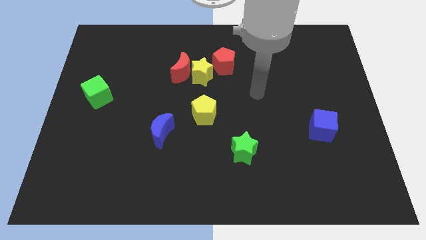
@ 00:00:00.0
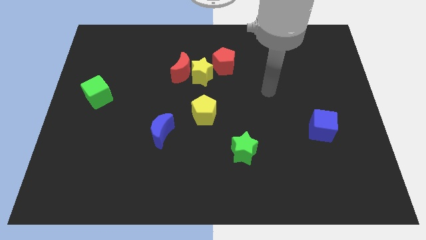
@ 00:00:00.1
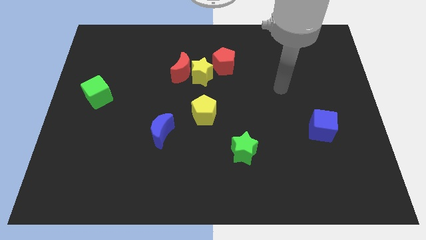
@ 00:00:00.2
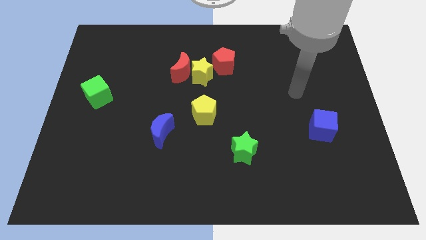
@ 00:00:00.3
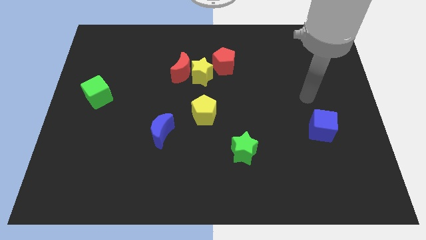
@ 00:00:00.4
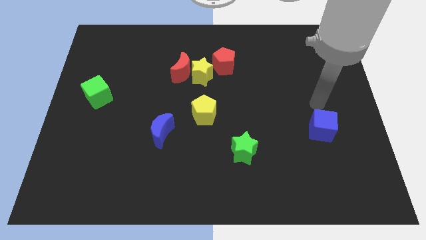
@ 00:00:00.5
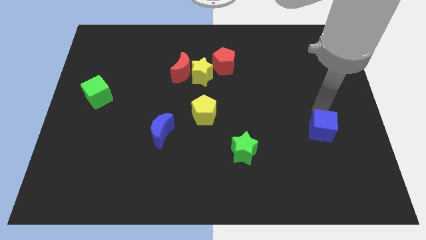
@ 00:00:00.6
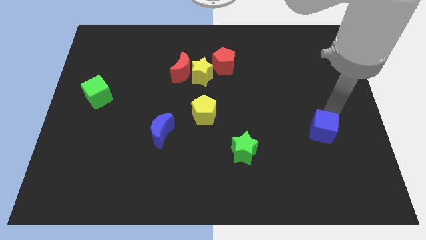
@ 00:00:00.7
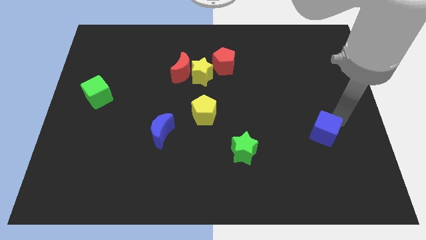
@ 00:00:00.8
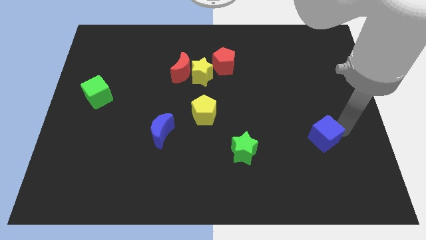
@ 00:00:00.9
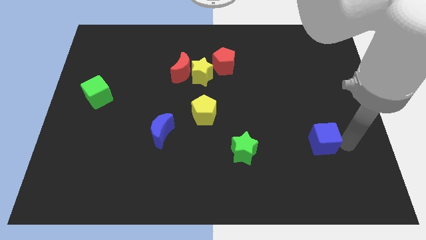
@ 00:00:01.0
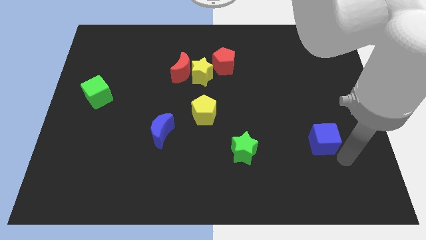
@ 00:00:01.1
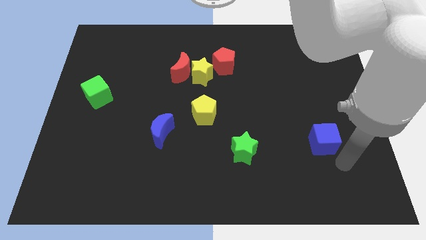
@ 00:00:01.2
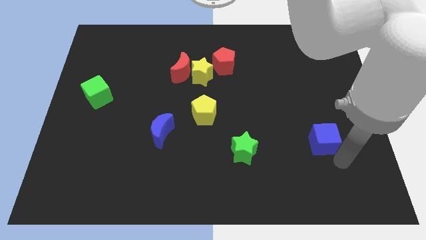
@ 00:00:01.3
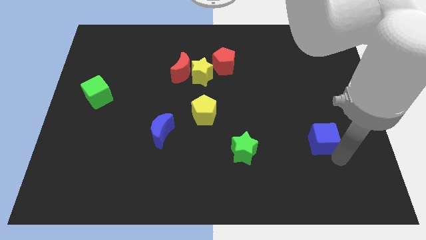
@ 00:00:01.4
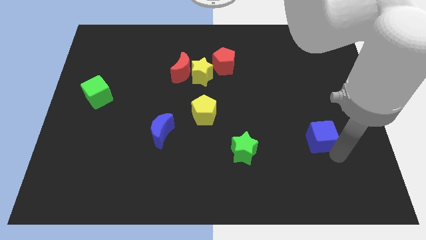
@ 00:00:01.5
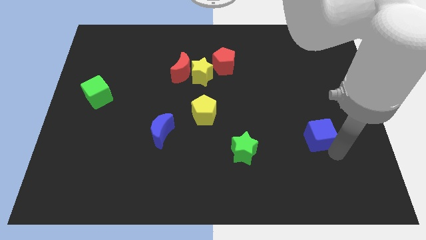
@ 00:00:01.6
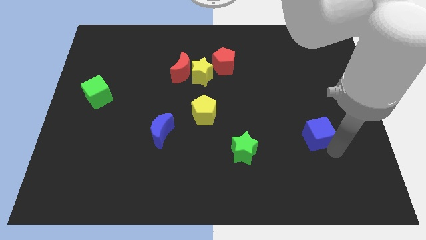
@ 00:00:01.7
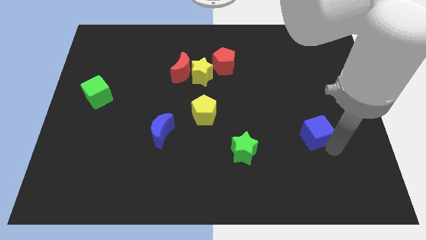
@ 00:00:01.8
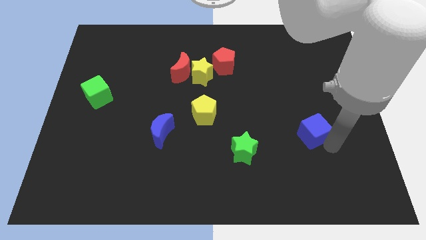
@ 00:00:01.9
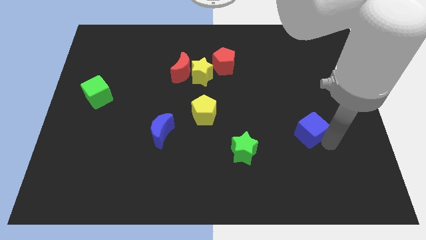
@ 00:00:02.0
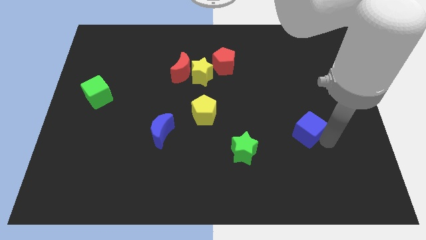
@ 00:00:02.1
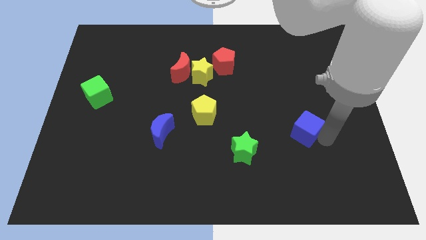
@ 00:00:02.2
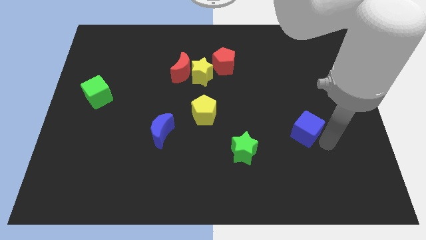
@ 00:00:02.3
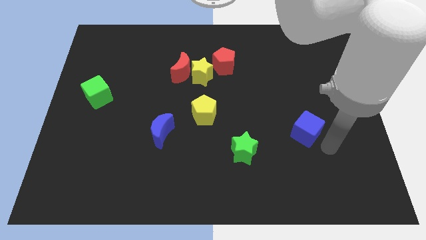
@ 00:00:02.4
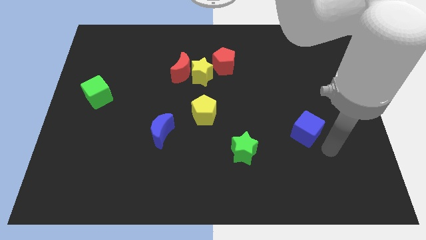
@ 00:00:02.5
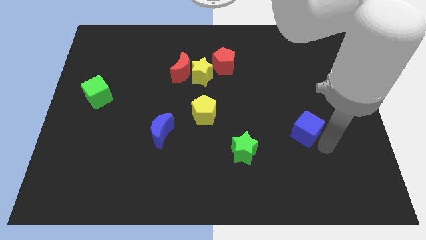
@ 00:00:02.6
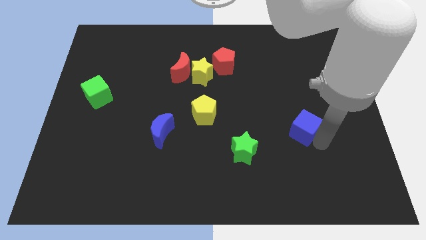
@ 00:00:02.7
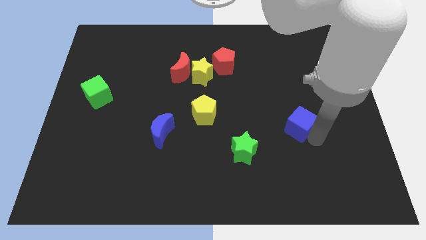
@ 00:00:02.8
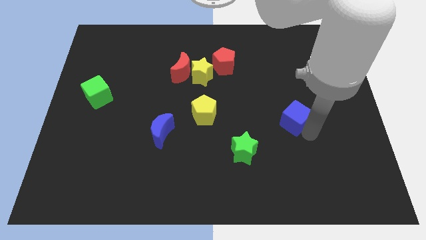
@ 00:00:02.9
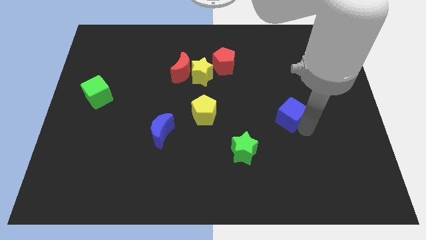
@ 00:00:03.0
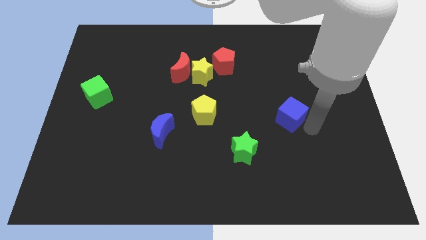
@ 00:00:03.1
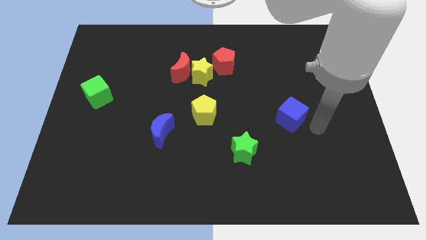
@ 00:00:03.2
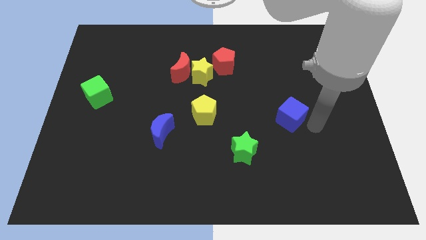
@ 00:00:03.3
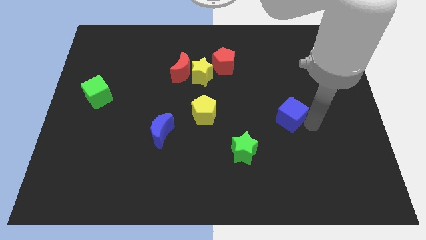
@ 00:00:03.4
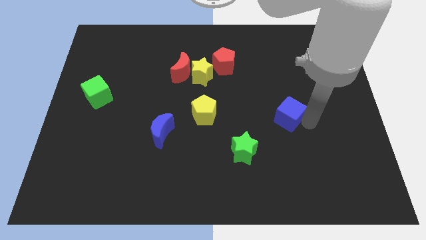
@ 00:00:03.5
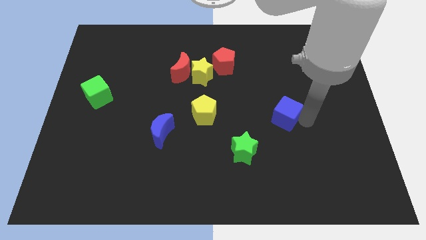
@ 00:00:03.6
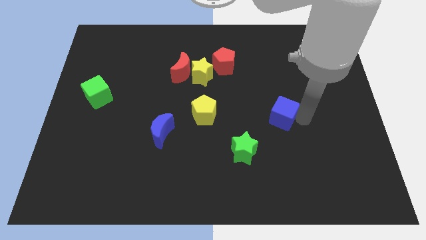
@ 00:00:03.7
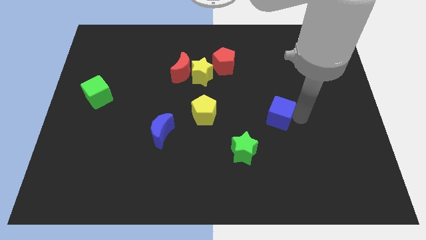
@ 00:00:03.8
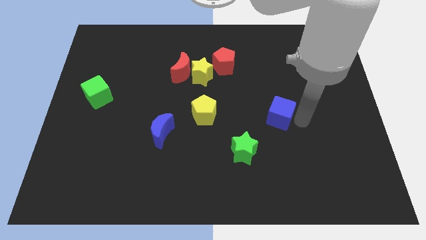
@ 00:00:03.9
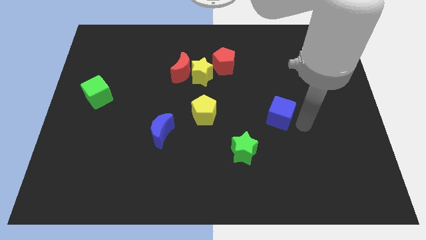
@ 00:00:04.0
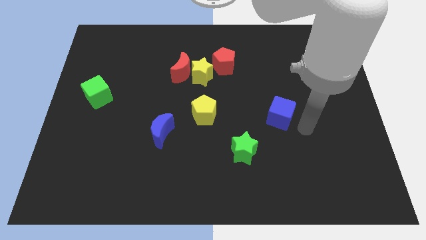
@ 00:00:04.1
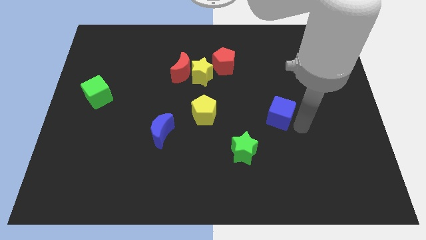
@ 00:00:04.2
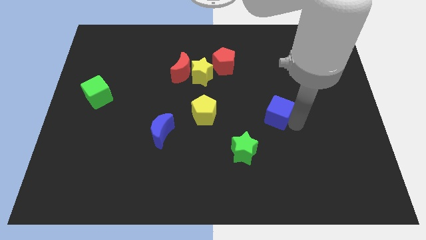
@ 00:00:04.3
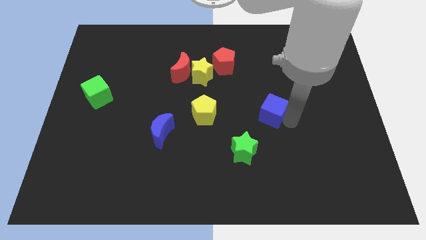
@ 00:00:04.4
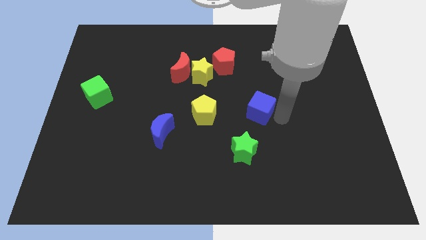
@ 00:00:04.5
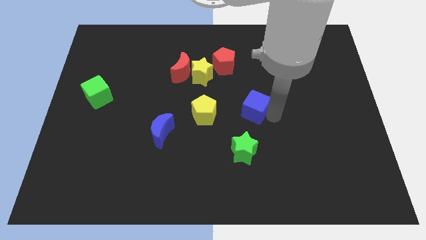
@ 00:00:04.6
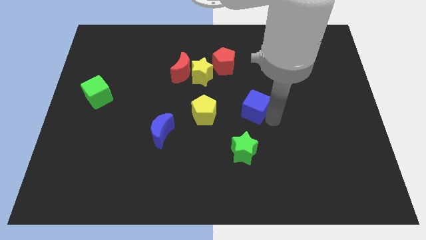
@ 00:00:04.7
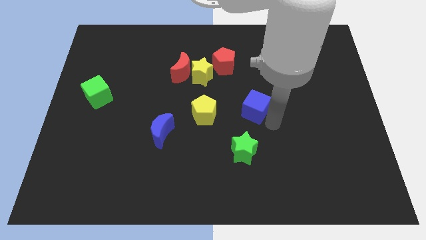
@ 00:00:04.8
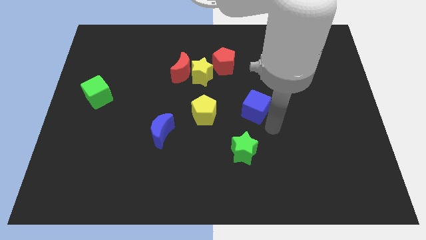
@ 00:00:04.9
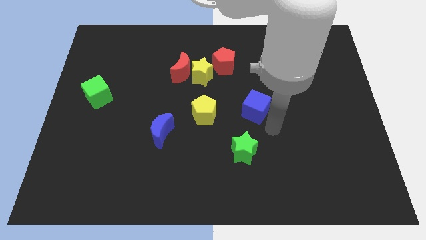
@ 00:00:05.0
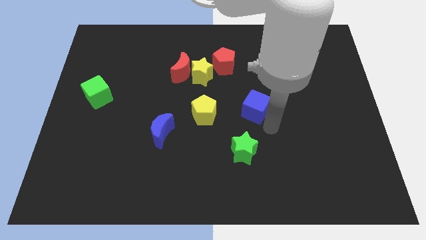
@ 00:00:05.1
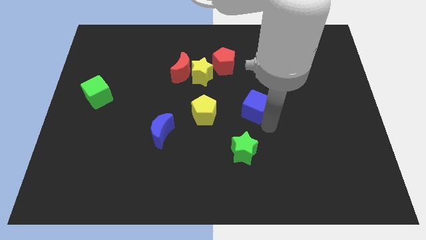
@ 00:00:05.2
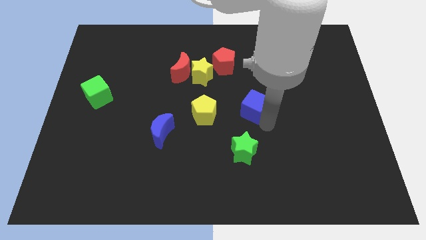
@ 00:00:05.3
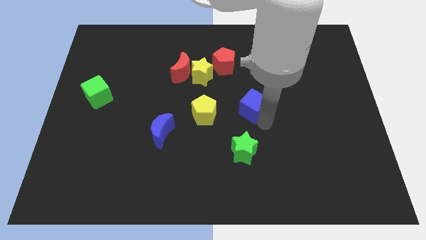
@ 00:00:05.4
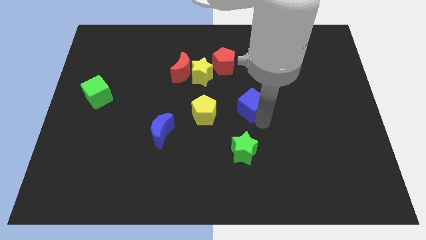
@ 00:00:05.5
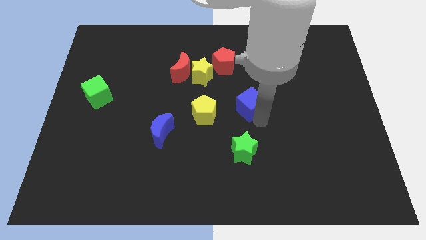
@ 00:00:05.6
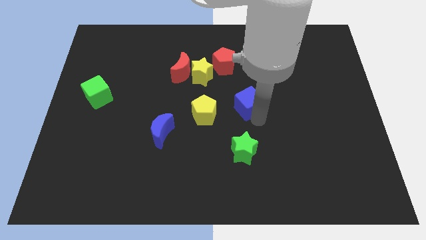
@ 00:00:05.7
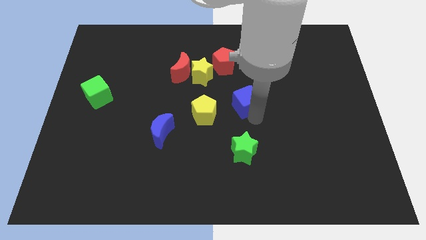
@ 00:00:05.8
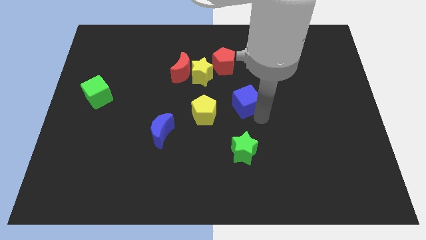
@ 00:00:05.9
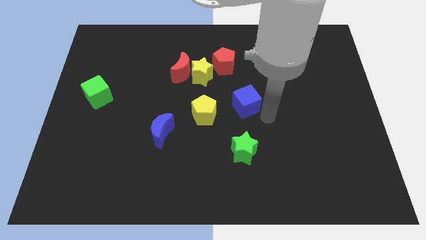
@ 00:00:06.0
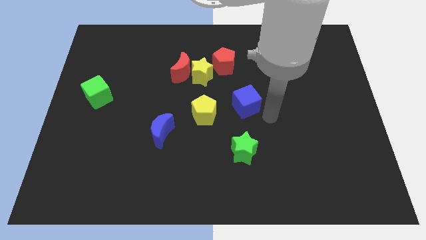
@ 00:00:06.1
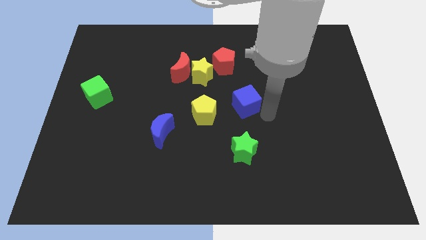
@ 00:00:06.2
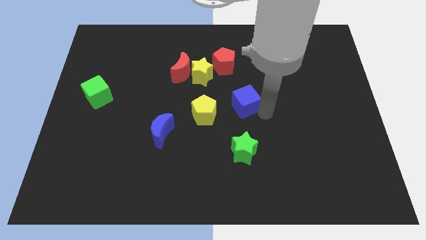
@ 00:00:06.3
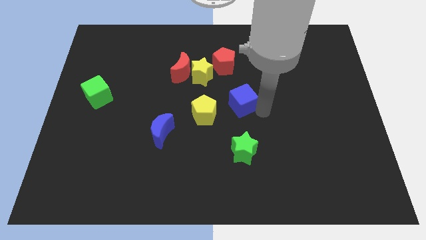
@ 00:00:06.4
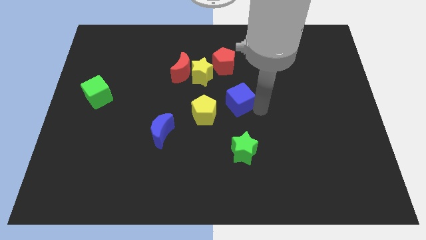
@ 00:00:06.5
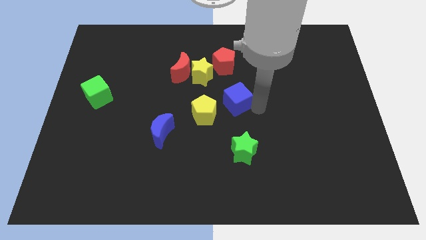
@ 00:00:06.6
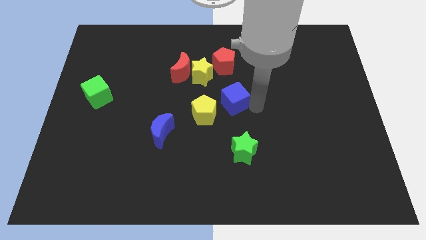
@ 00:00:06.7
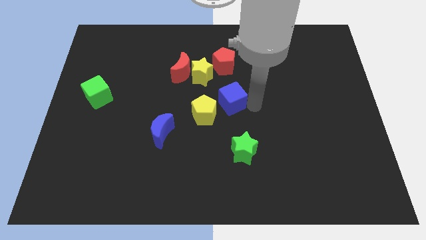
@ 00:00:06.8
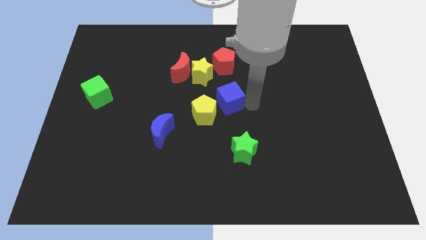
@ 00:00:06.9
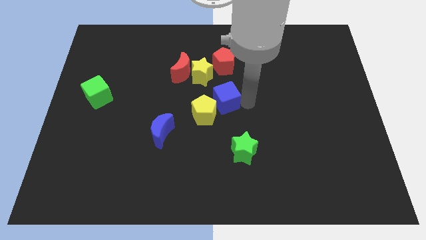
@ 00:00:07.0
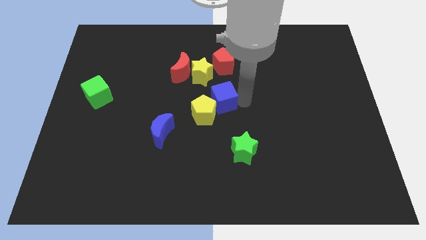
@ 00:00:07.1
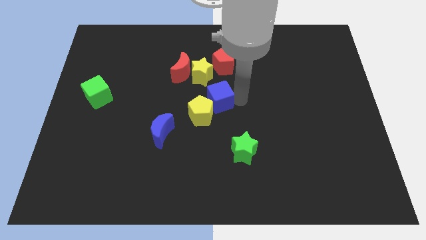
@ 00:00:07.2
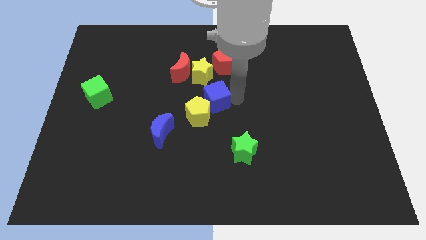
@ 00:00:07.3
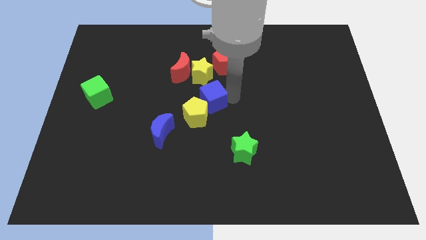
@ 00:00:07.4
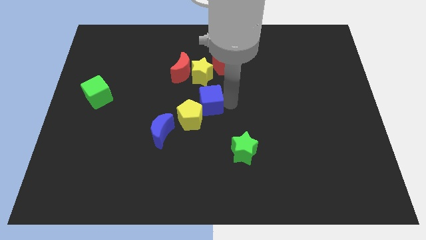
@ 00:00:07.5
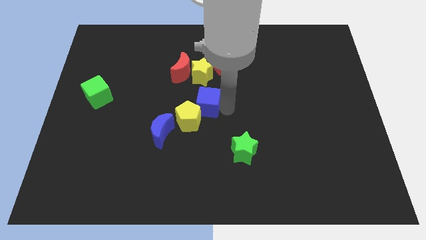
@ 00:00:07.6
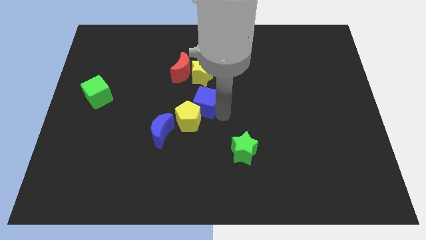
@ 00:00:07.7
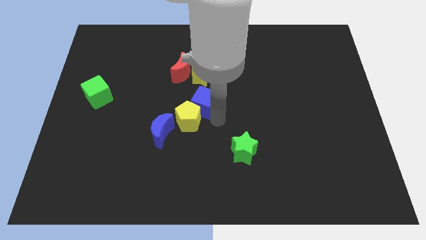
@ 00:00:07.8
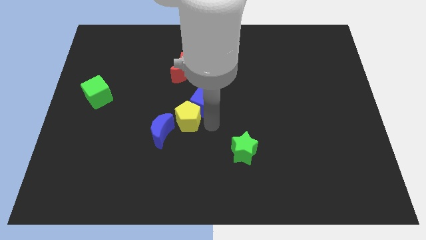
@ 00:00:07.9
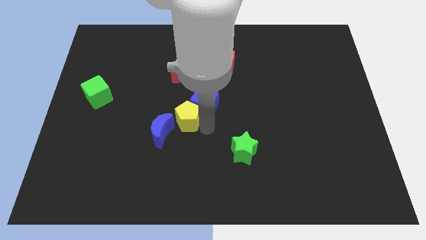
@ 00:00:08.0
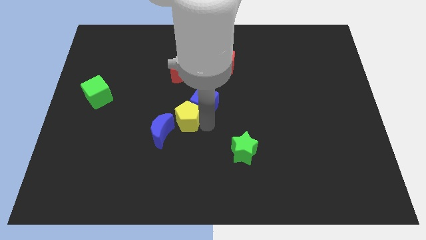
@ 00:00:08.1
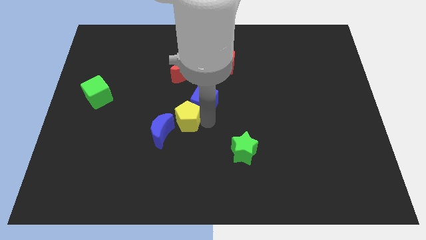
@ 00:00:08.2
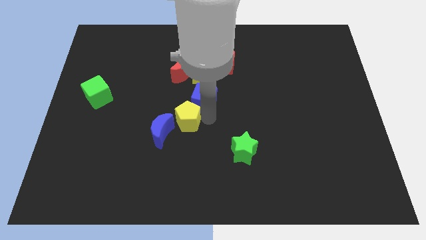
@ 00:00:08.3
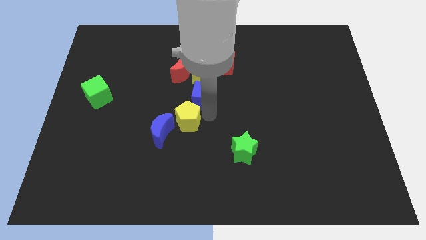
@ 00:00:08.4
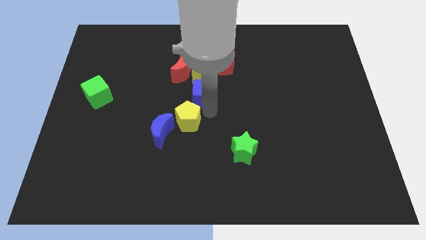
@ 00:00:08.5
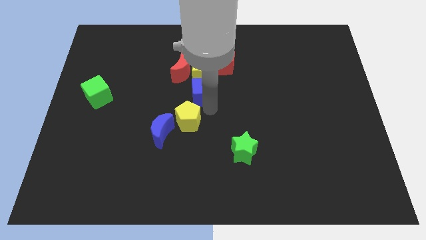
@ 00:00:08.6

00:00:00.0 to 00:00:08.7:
slide the blue cube towards the yellow star
